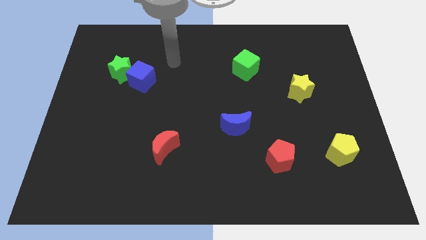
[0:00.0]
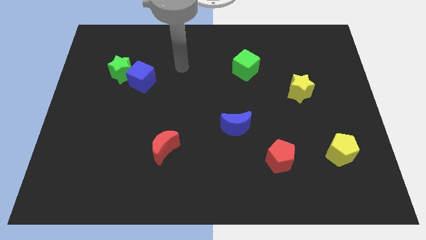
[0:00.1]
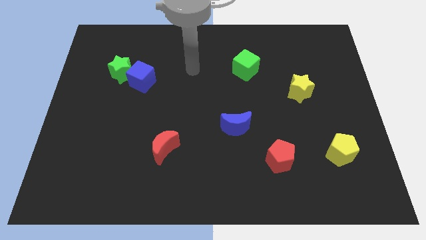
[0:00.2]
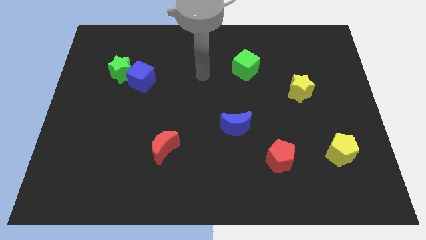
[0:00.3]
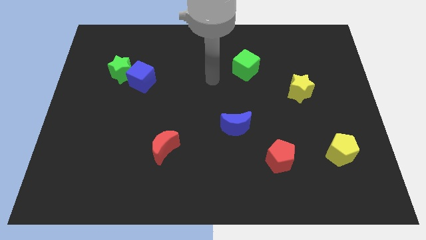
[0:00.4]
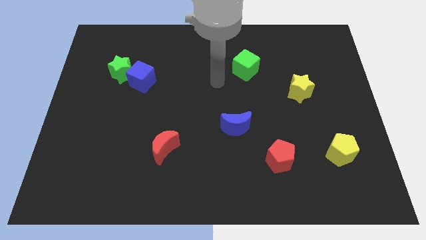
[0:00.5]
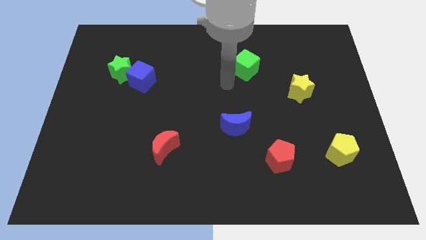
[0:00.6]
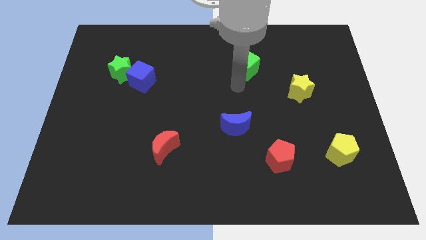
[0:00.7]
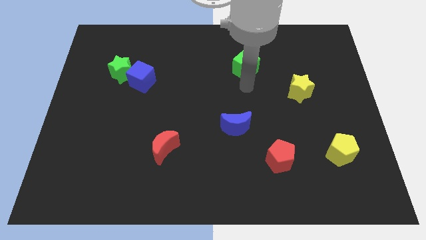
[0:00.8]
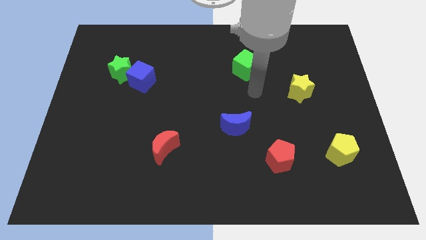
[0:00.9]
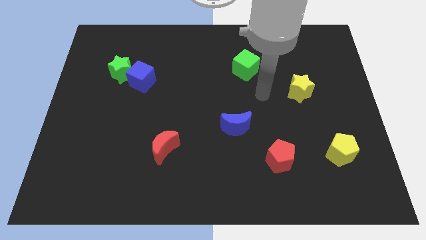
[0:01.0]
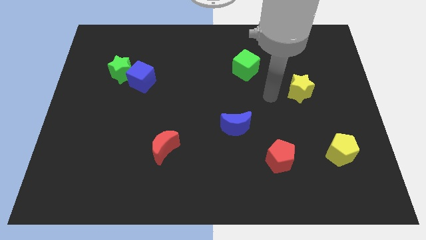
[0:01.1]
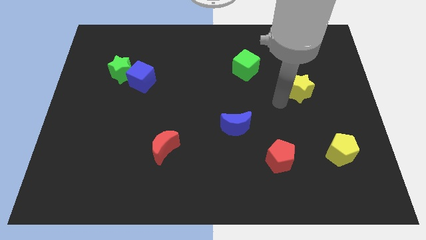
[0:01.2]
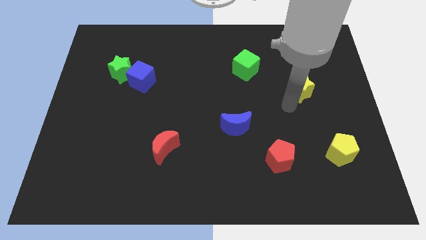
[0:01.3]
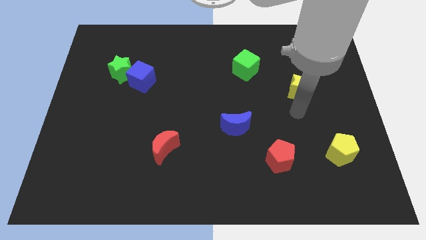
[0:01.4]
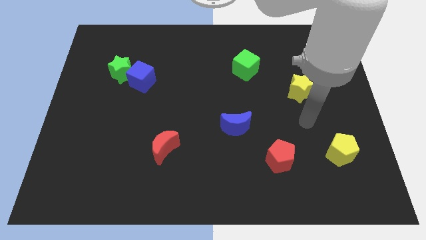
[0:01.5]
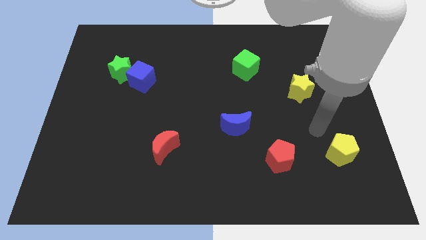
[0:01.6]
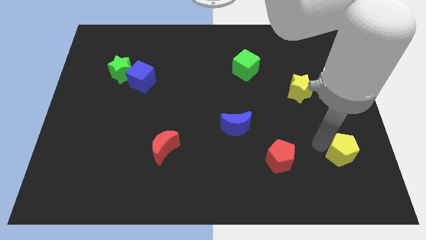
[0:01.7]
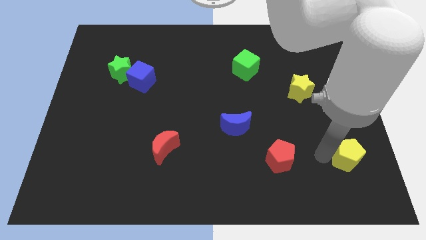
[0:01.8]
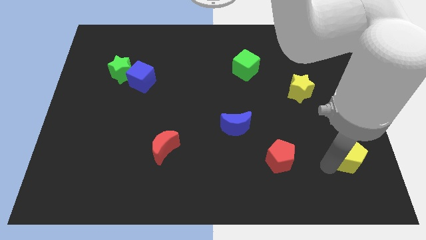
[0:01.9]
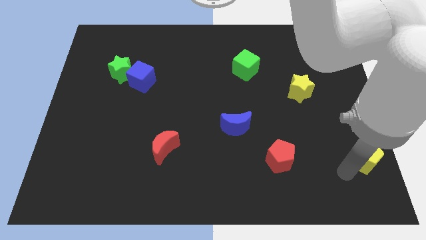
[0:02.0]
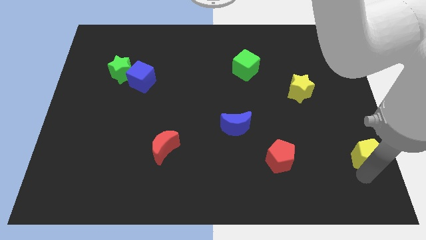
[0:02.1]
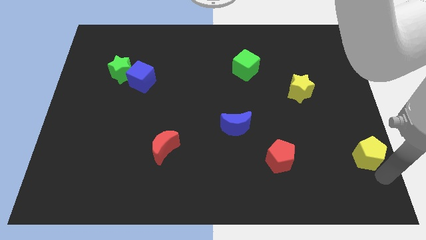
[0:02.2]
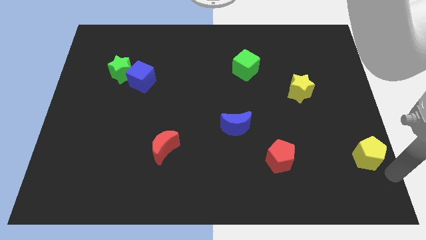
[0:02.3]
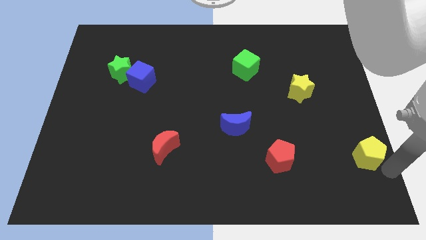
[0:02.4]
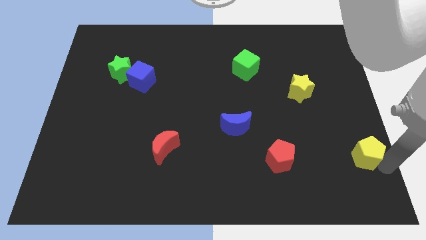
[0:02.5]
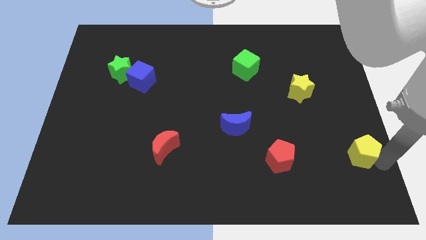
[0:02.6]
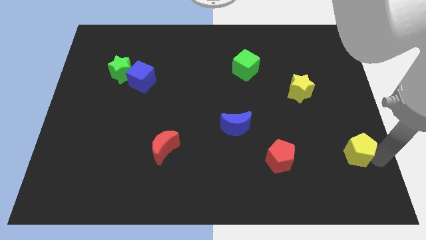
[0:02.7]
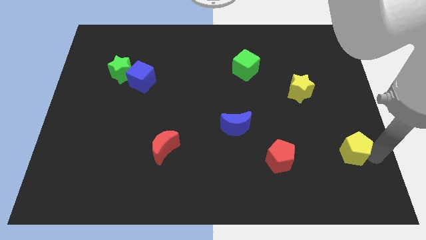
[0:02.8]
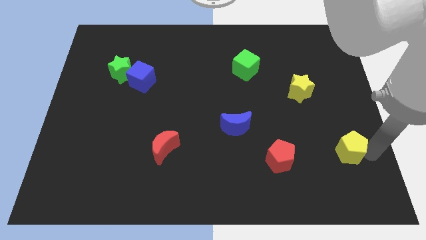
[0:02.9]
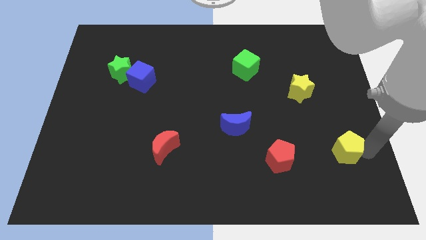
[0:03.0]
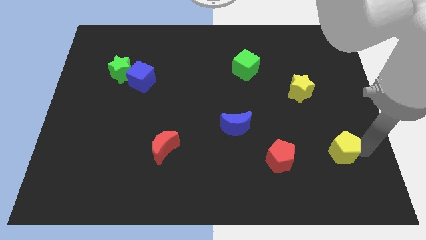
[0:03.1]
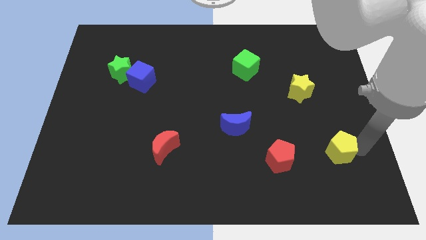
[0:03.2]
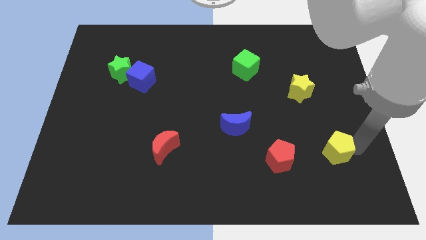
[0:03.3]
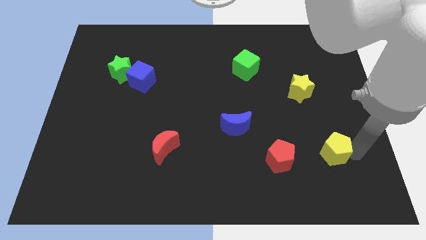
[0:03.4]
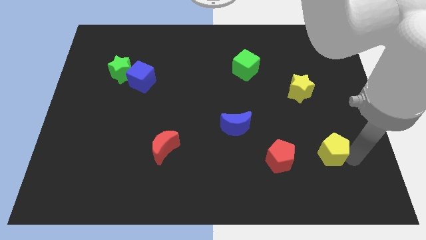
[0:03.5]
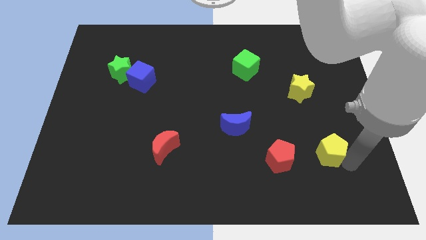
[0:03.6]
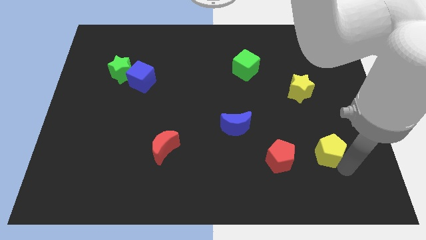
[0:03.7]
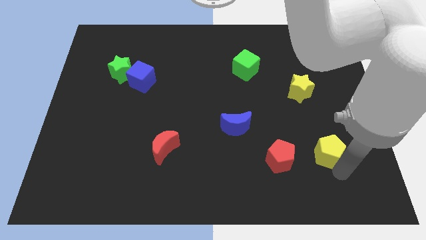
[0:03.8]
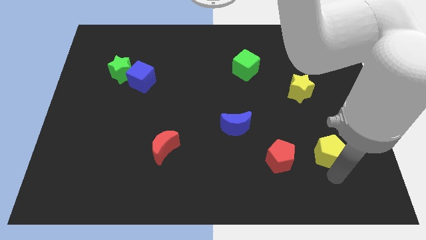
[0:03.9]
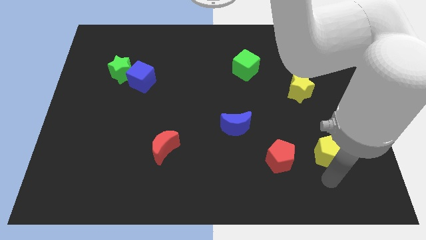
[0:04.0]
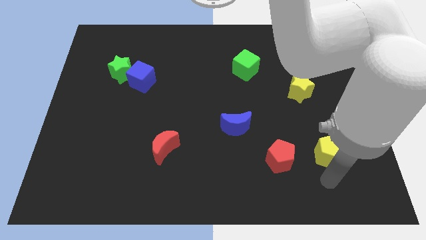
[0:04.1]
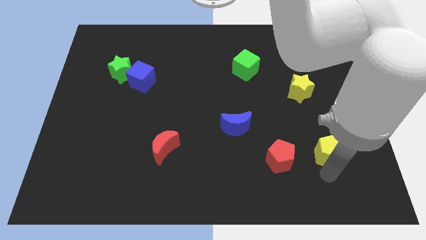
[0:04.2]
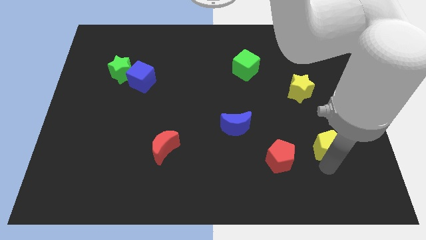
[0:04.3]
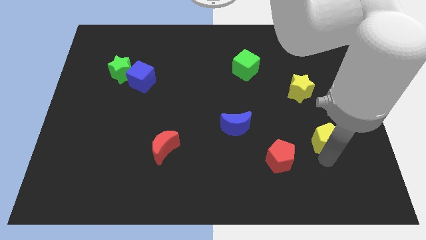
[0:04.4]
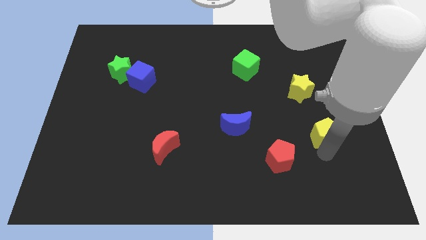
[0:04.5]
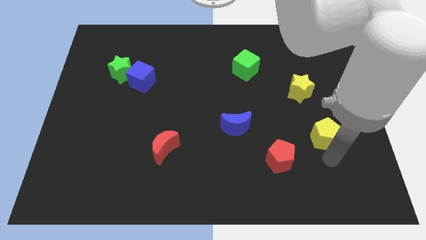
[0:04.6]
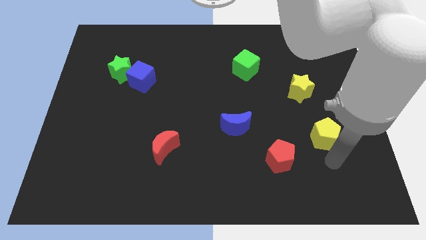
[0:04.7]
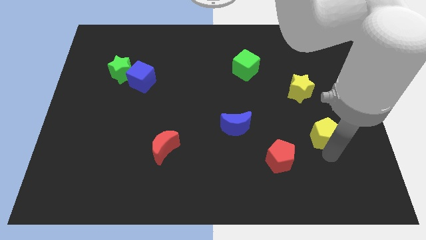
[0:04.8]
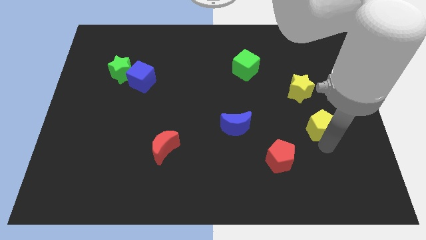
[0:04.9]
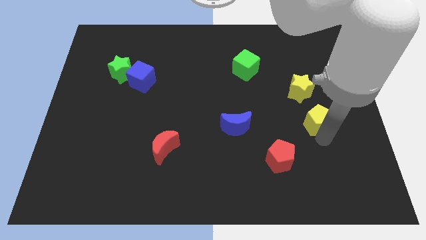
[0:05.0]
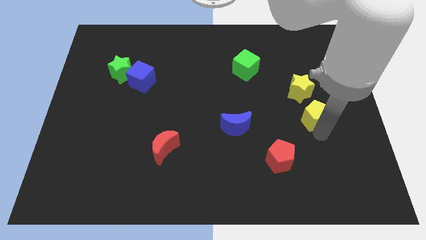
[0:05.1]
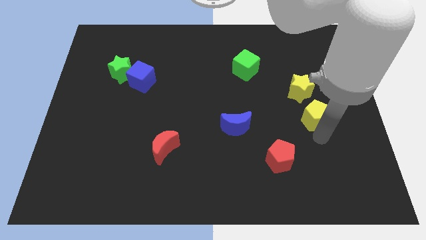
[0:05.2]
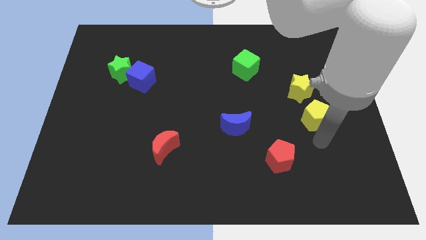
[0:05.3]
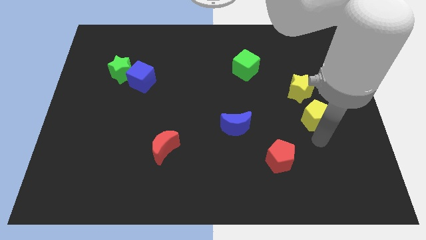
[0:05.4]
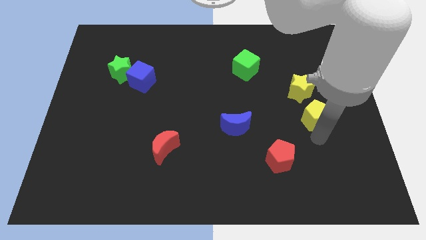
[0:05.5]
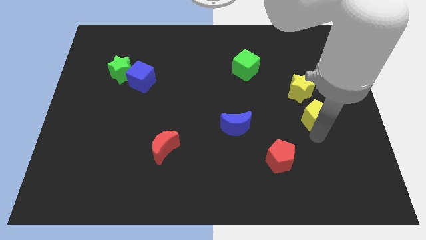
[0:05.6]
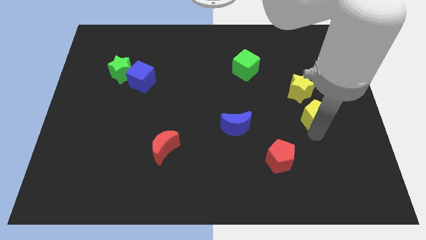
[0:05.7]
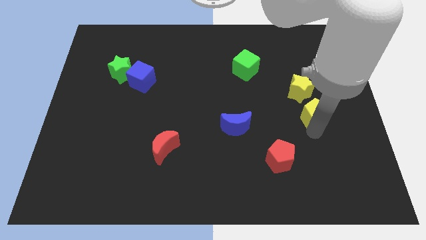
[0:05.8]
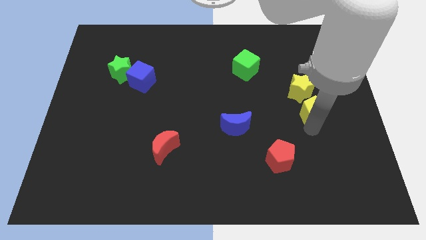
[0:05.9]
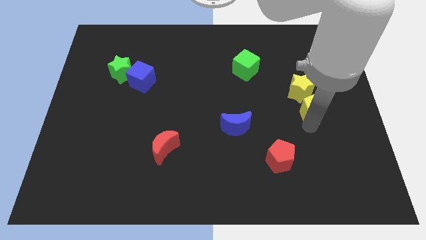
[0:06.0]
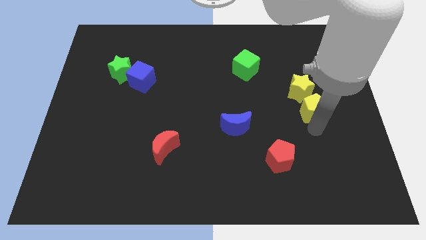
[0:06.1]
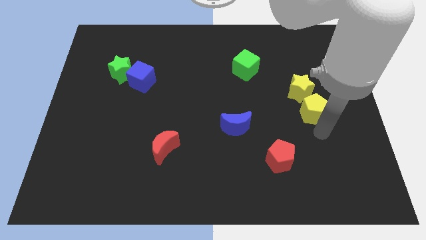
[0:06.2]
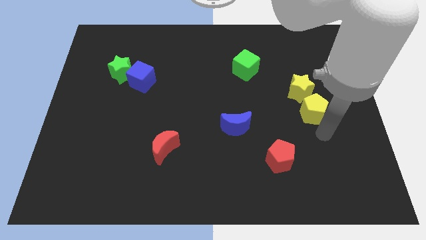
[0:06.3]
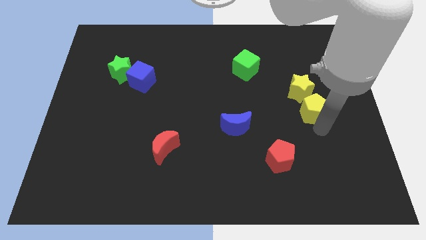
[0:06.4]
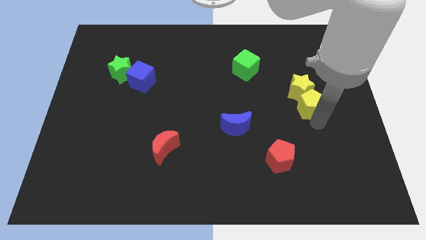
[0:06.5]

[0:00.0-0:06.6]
put the yellow pentagon close to the yellow star
